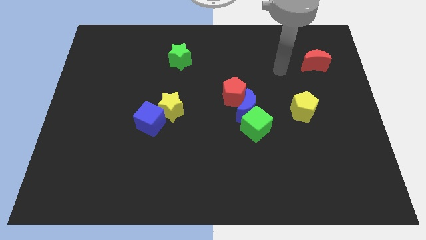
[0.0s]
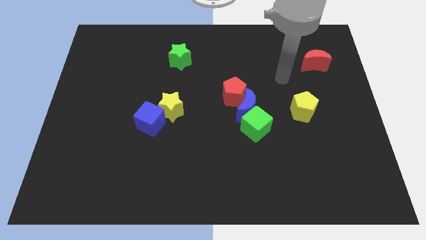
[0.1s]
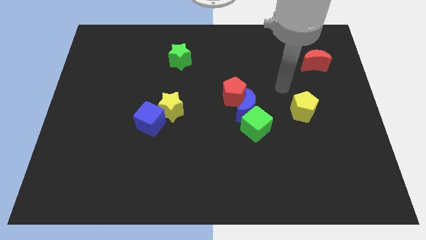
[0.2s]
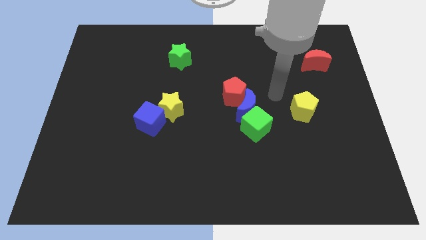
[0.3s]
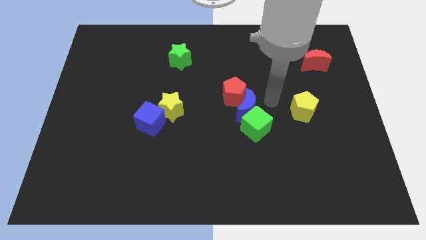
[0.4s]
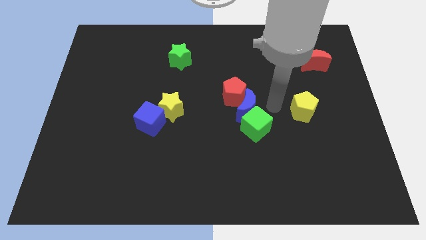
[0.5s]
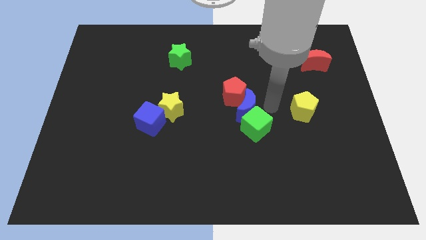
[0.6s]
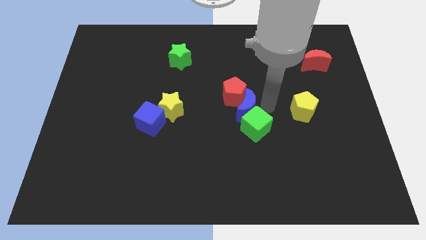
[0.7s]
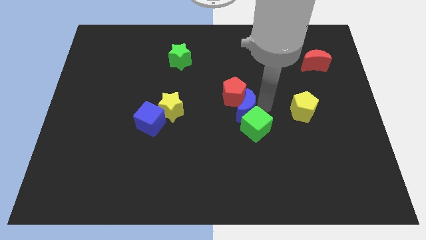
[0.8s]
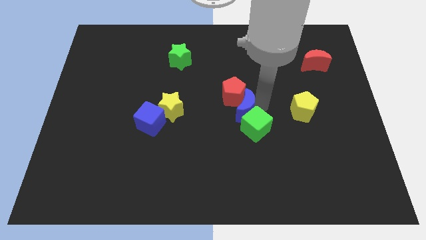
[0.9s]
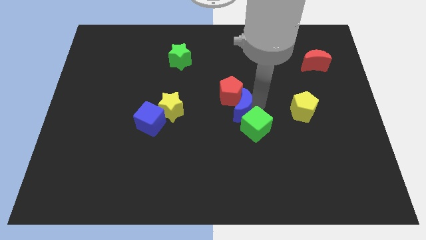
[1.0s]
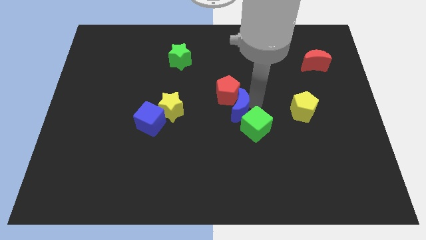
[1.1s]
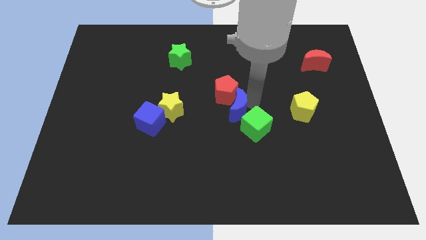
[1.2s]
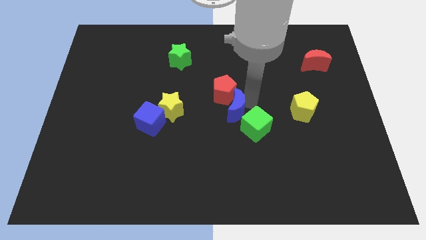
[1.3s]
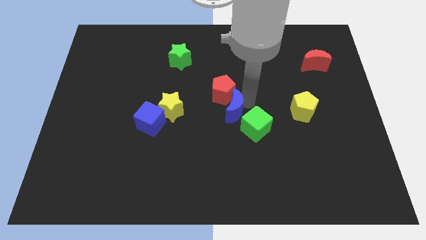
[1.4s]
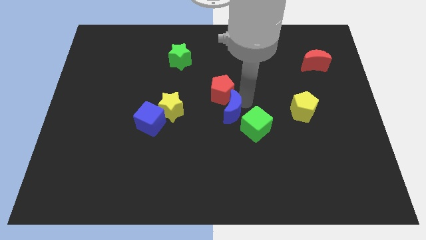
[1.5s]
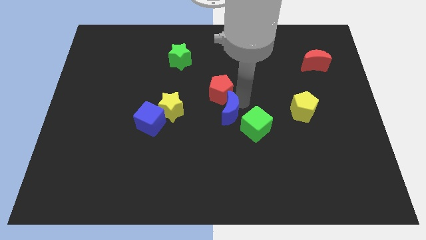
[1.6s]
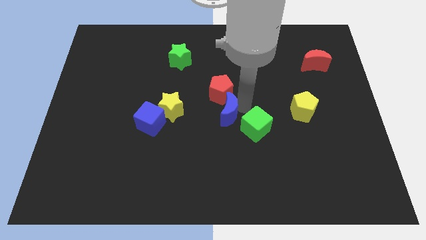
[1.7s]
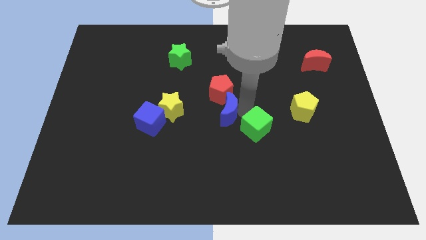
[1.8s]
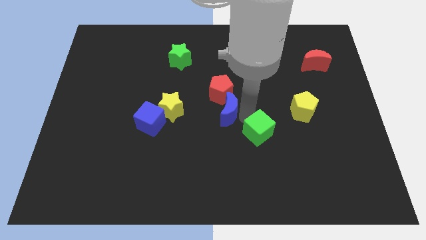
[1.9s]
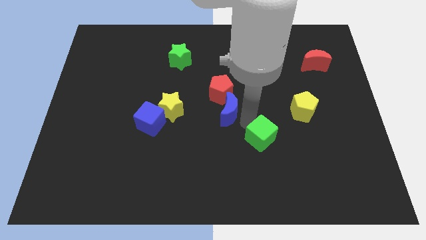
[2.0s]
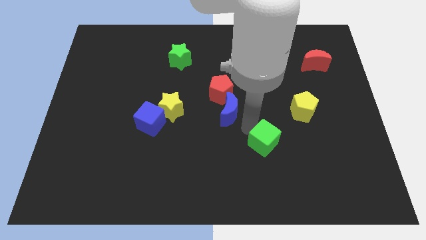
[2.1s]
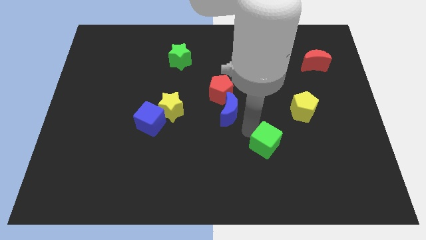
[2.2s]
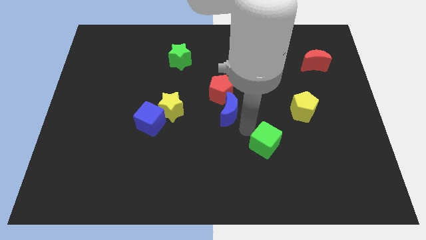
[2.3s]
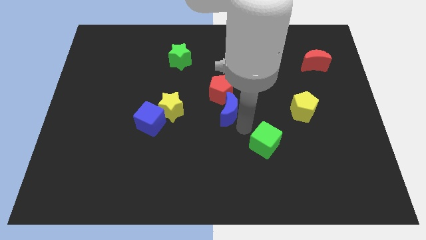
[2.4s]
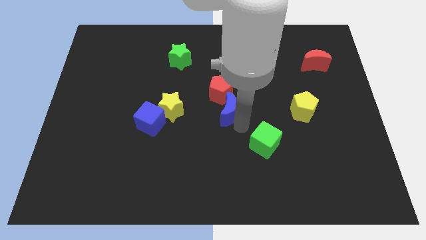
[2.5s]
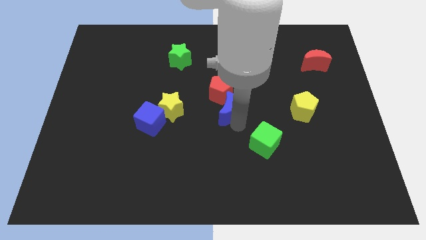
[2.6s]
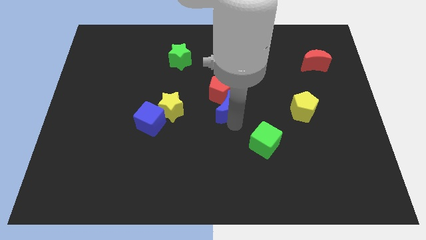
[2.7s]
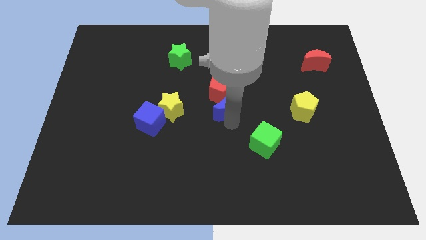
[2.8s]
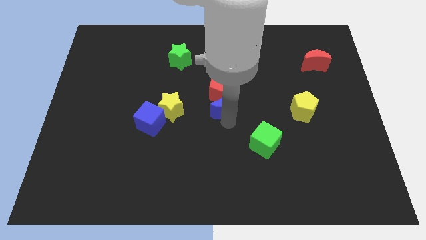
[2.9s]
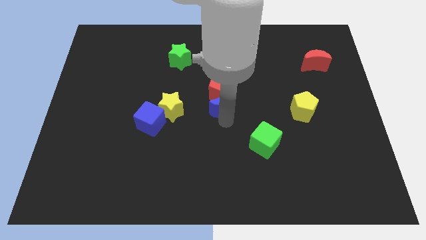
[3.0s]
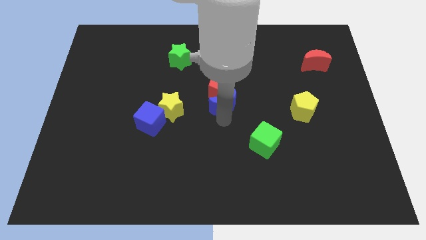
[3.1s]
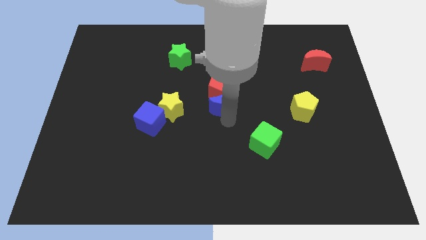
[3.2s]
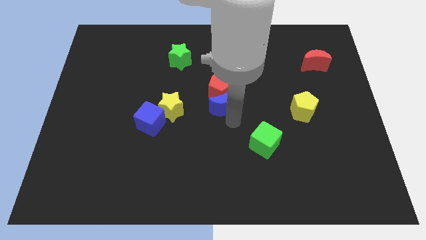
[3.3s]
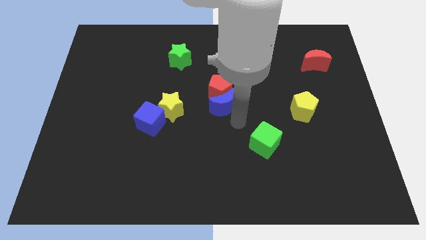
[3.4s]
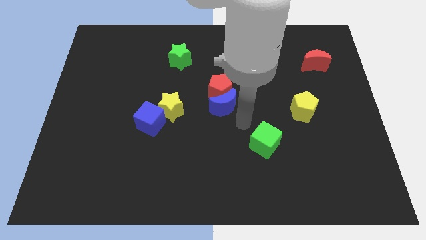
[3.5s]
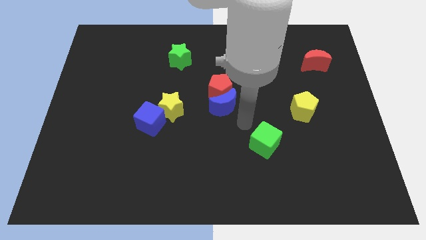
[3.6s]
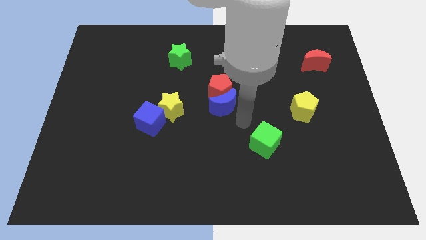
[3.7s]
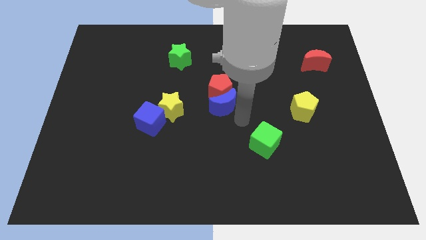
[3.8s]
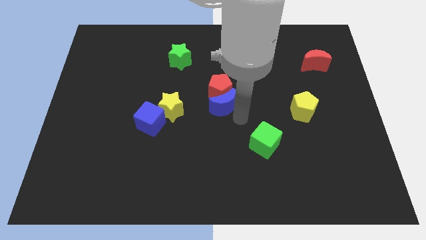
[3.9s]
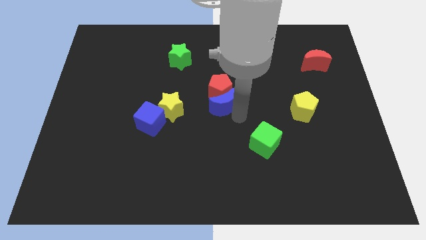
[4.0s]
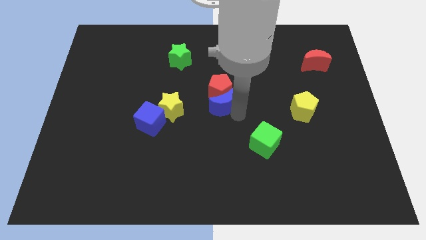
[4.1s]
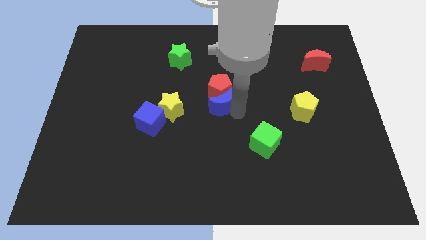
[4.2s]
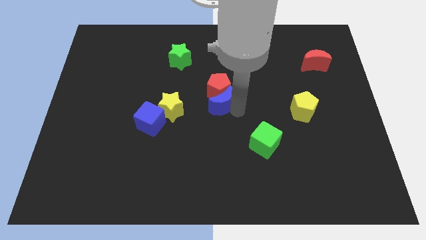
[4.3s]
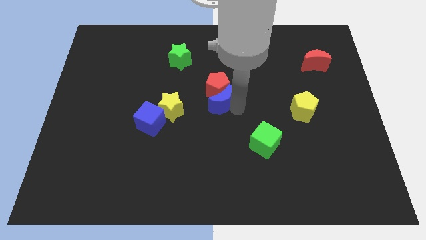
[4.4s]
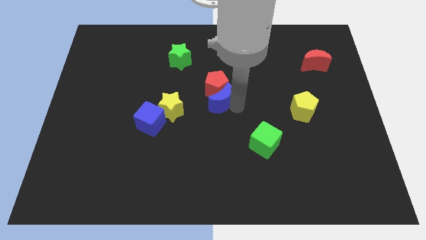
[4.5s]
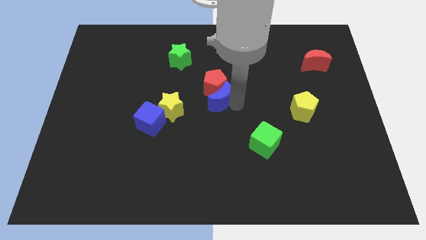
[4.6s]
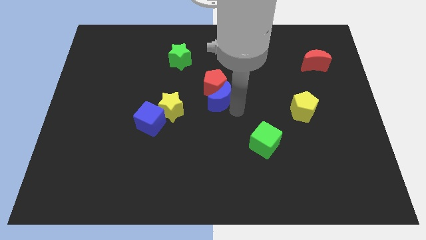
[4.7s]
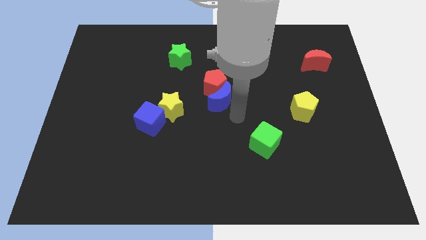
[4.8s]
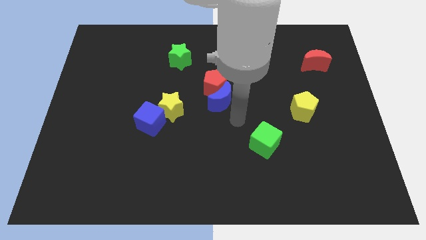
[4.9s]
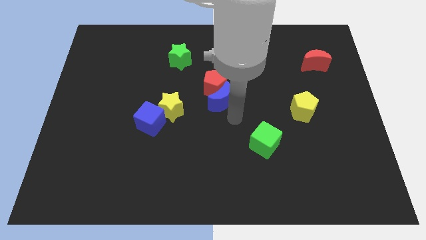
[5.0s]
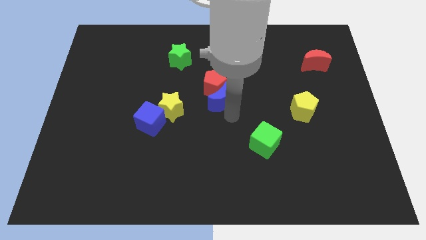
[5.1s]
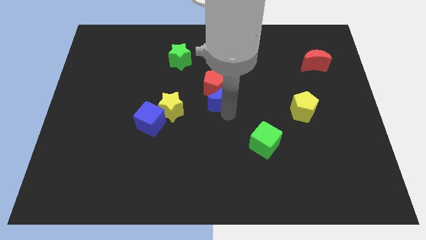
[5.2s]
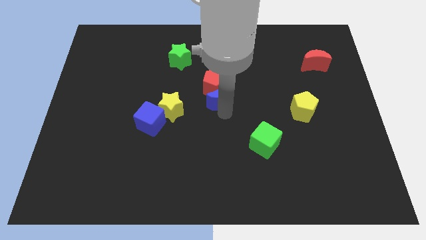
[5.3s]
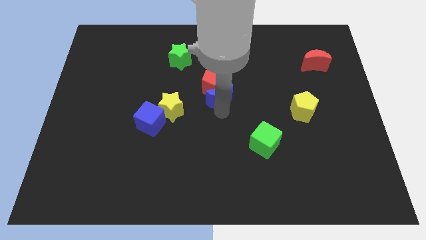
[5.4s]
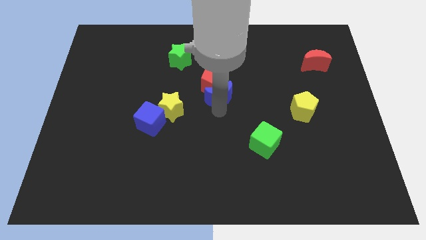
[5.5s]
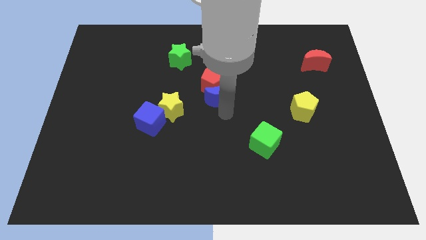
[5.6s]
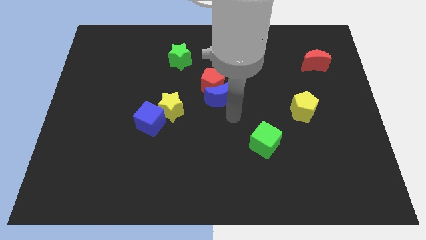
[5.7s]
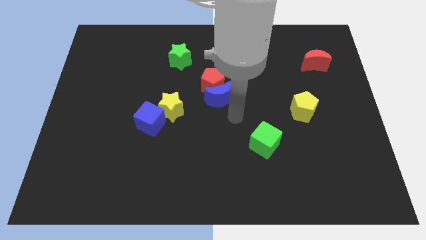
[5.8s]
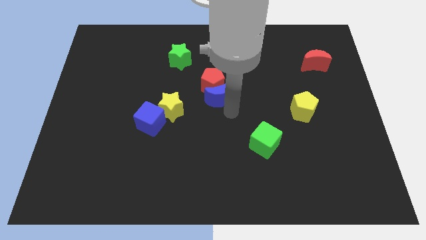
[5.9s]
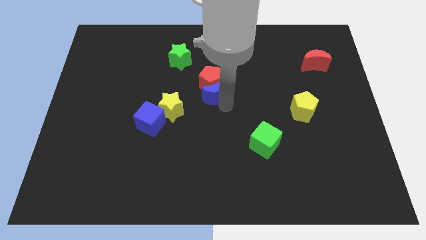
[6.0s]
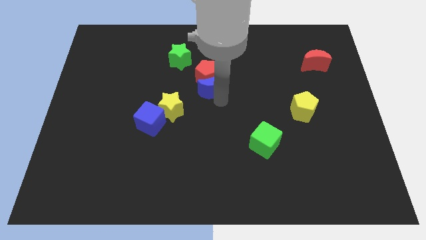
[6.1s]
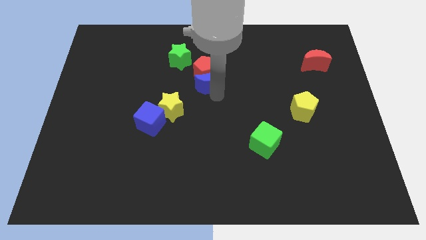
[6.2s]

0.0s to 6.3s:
slide the blue moon to the bottom right of the green star
